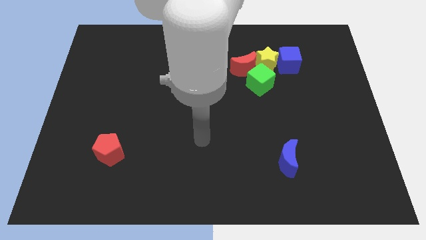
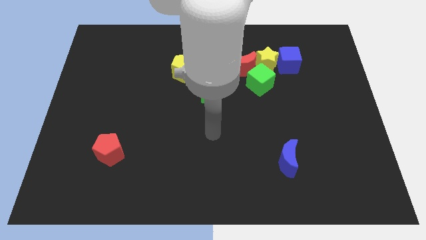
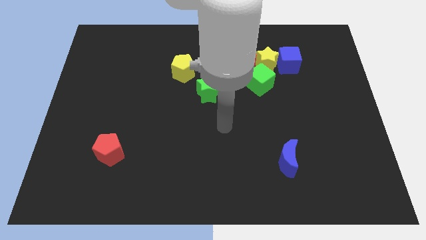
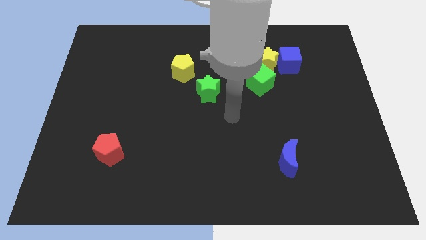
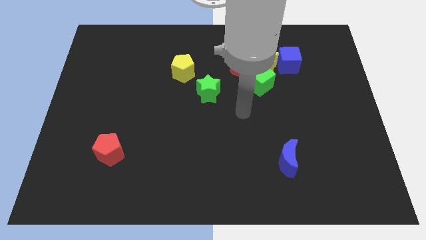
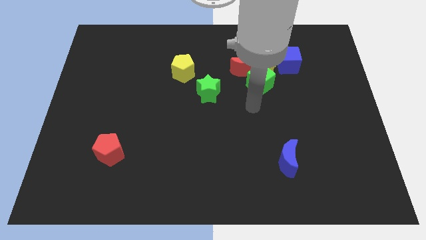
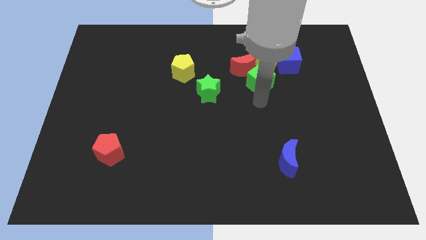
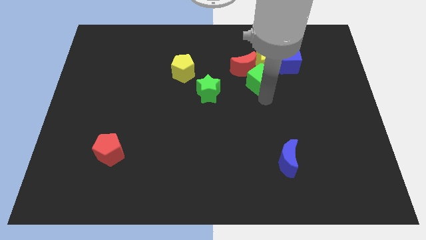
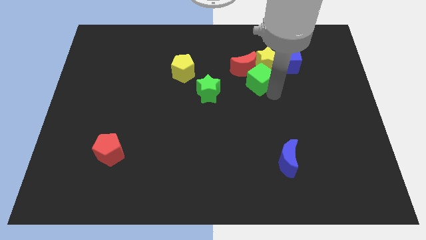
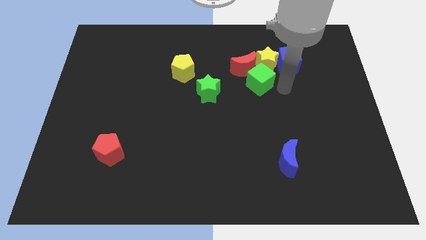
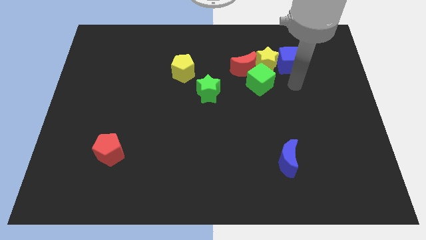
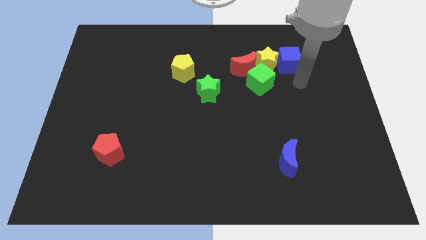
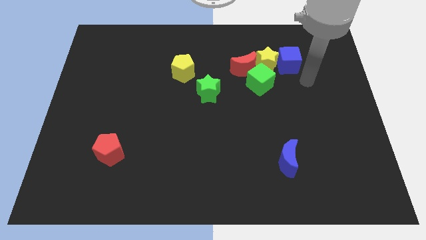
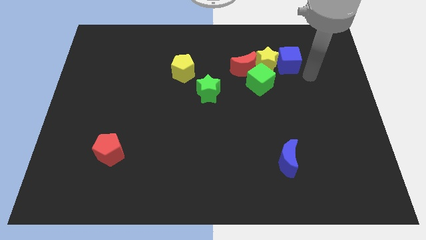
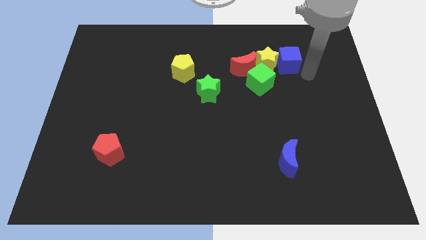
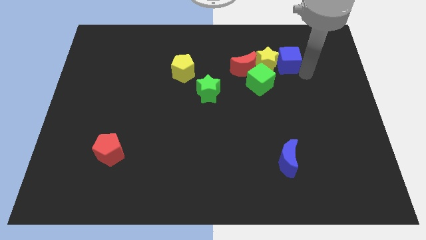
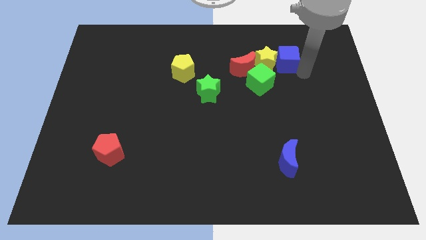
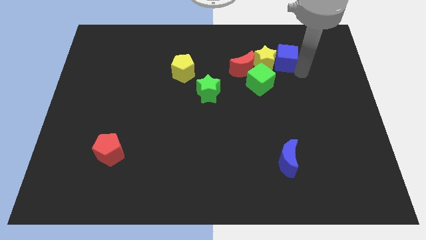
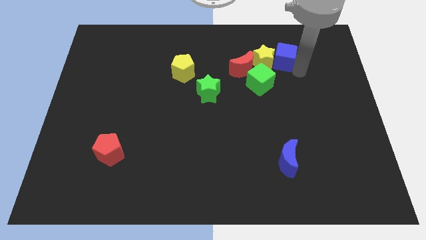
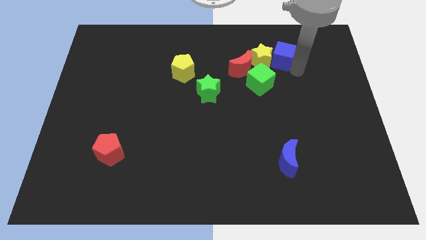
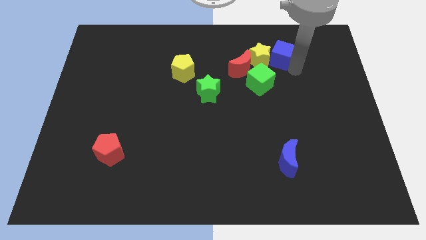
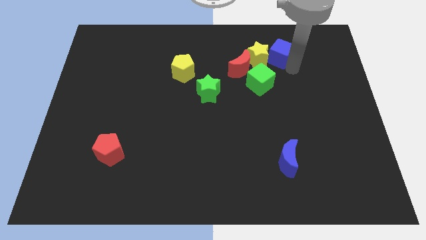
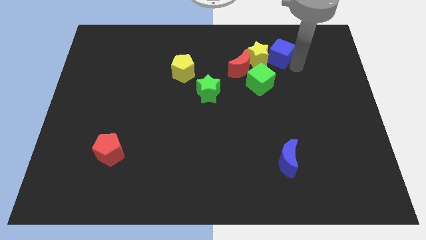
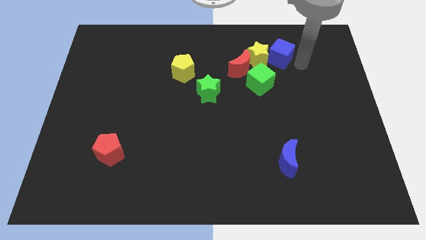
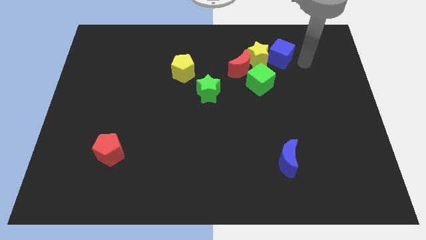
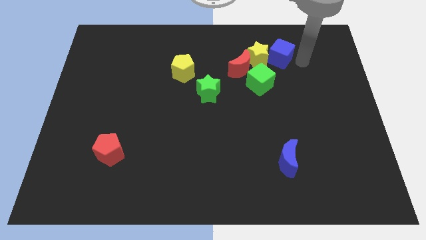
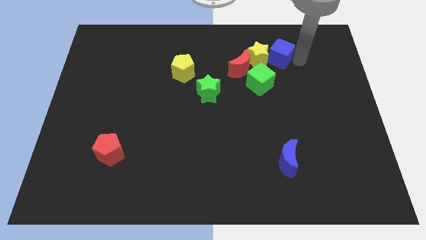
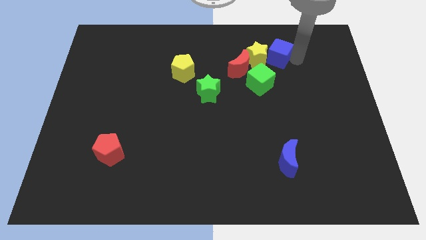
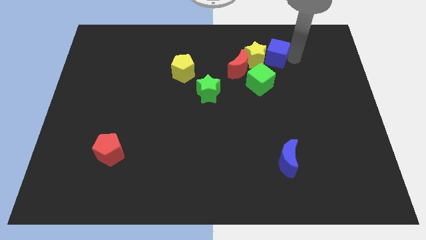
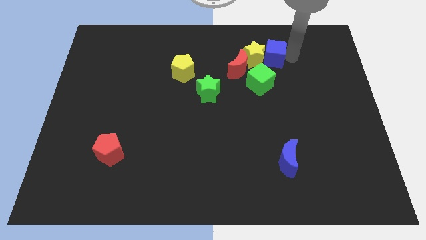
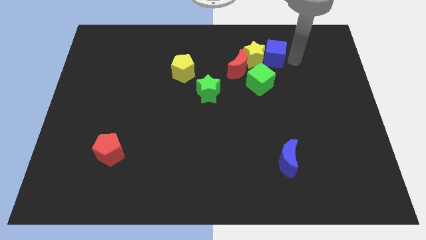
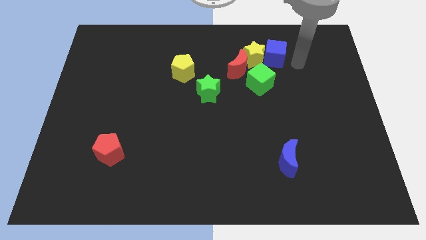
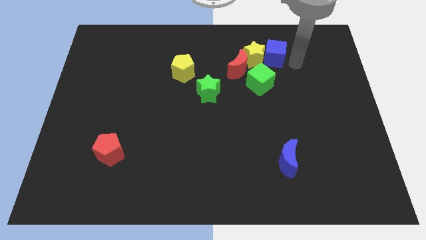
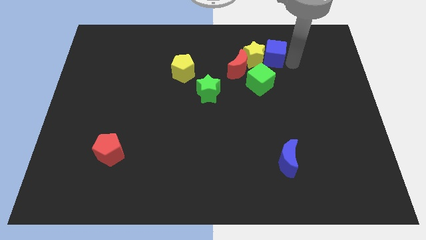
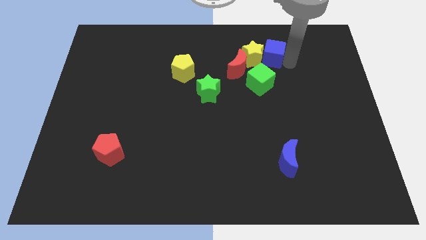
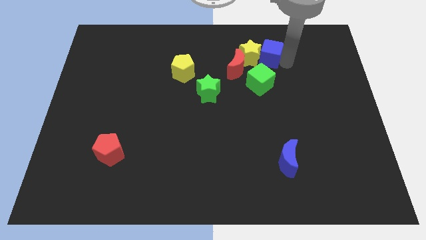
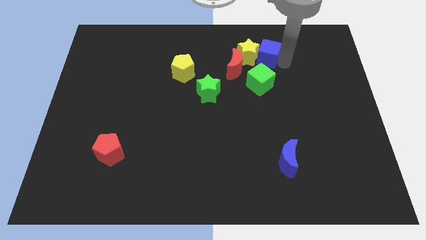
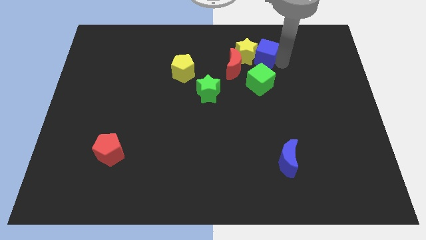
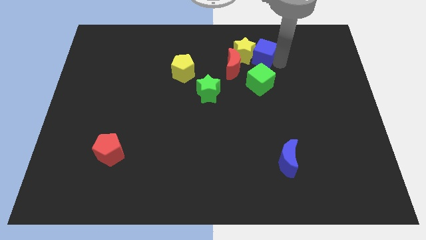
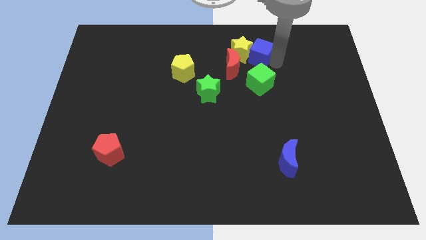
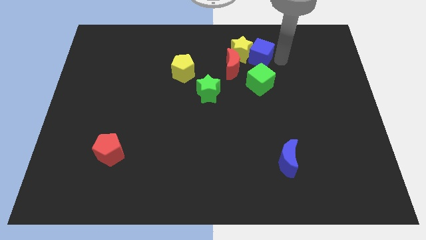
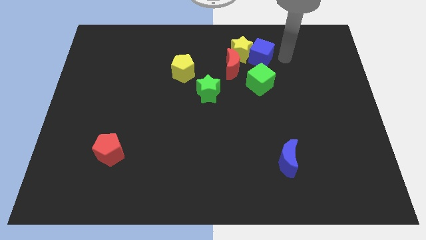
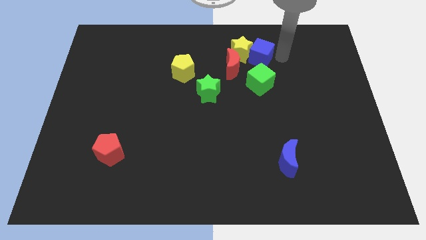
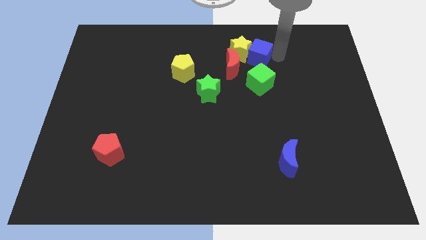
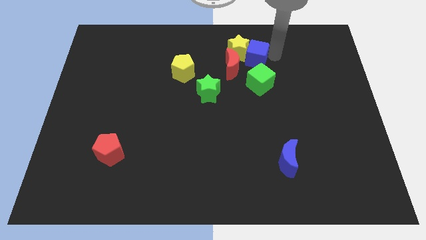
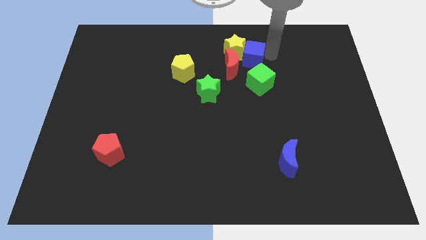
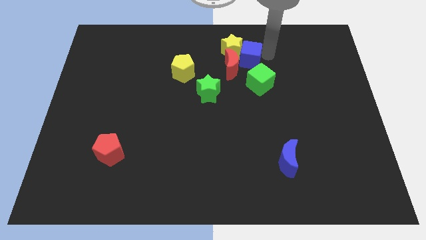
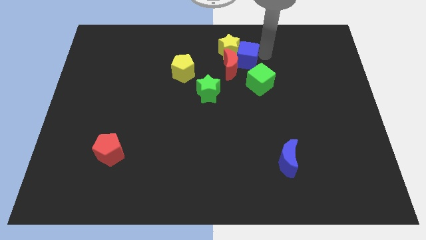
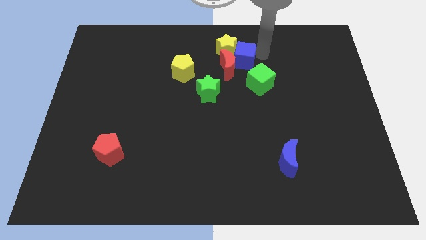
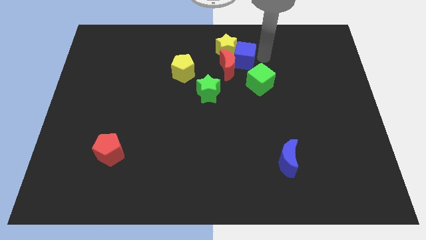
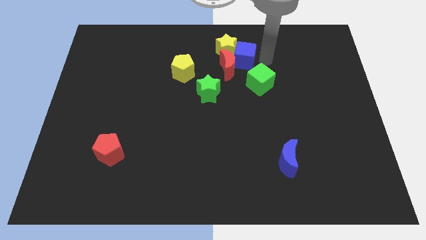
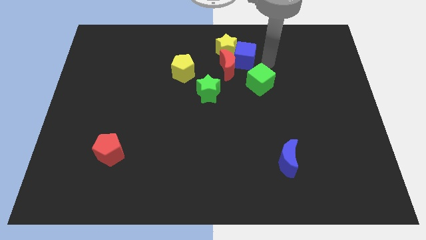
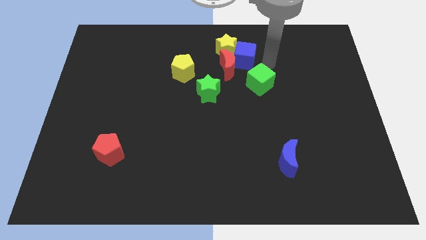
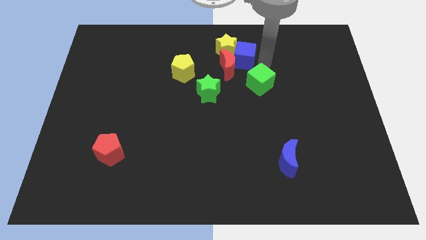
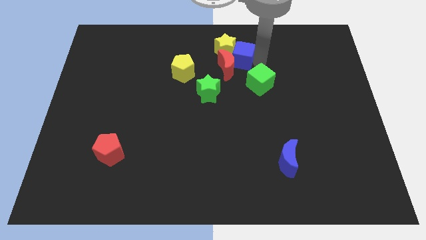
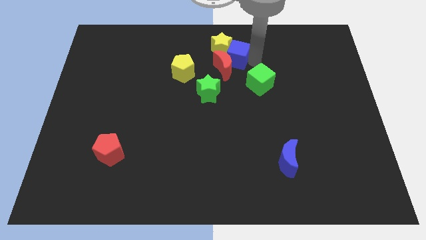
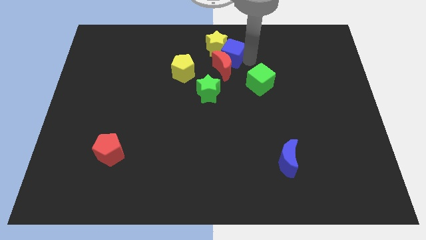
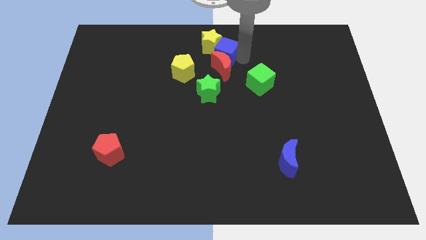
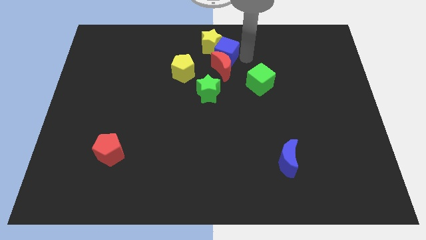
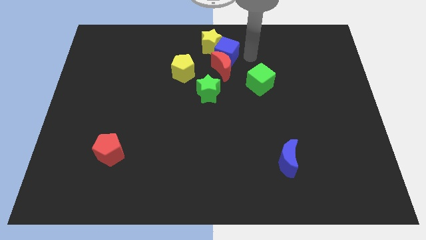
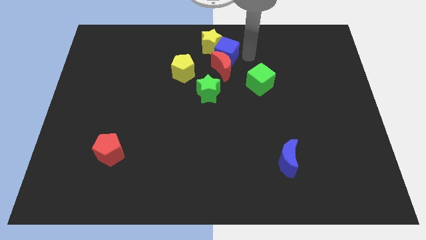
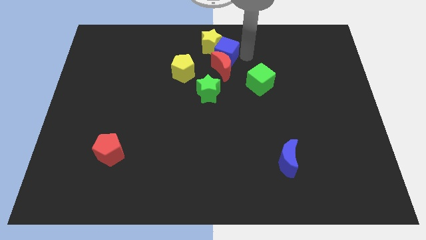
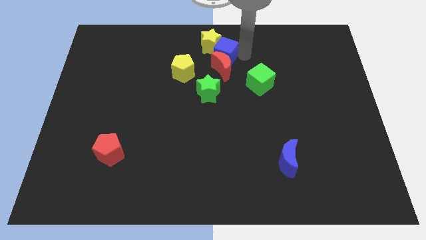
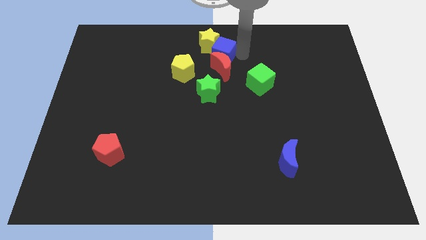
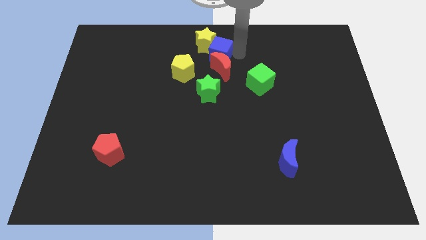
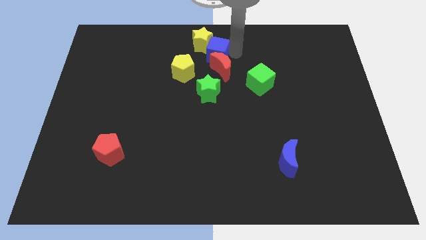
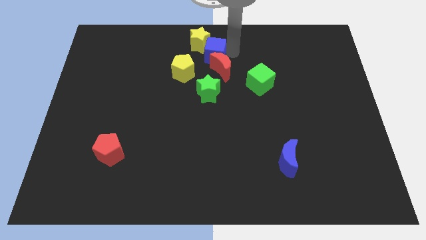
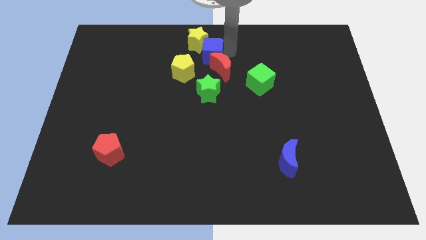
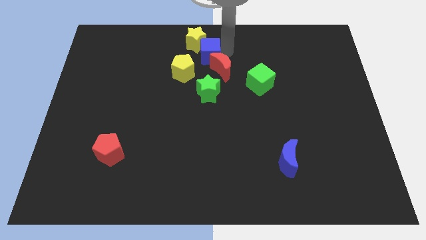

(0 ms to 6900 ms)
push the blue cube left

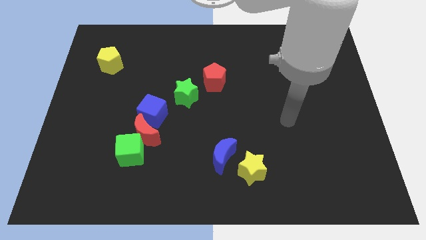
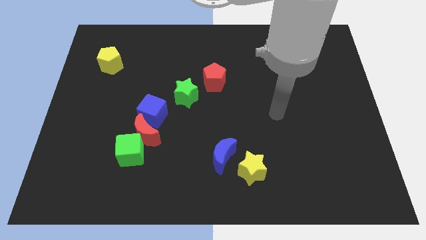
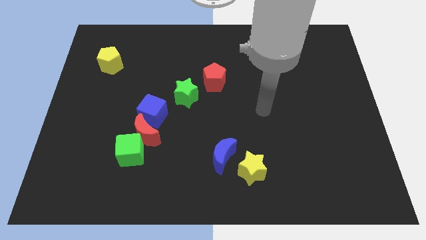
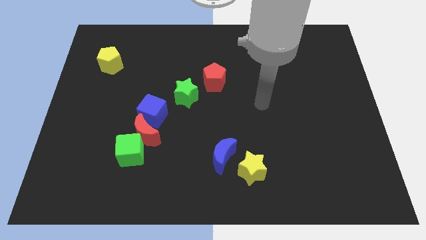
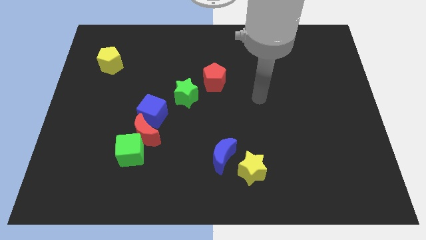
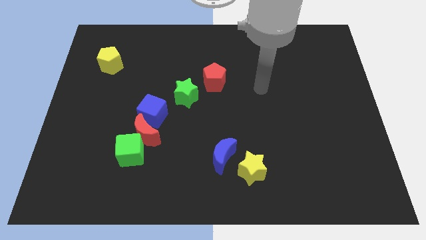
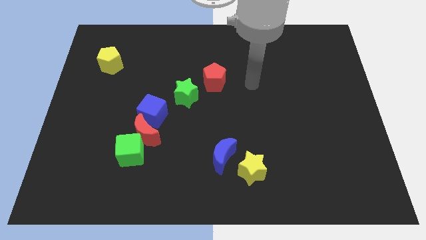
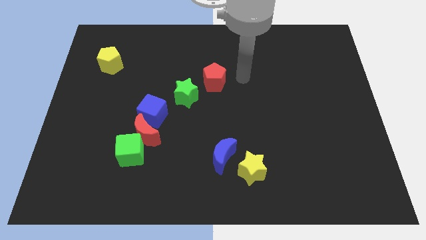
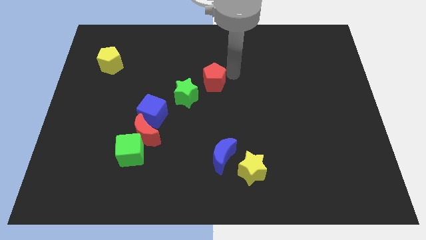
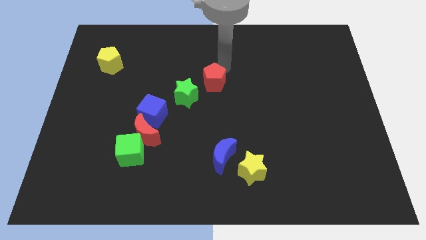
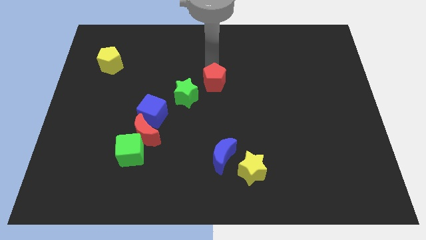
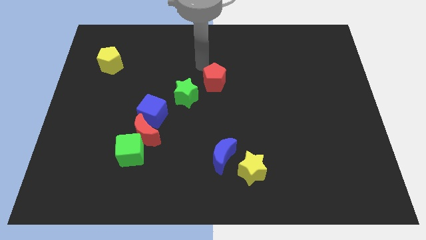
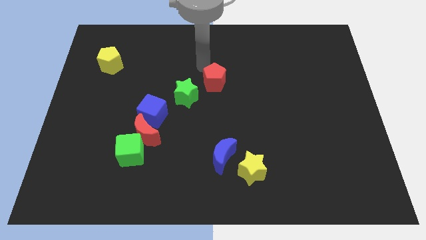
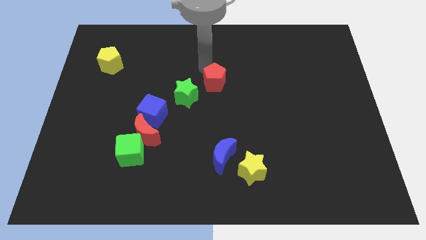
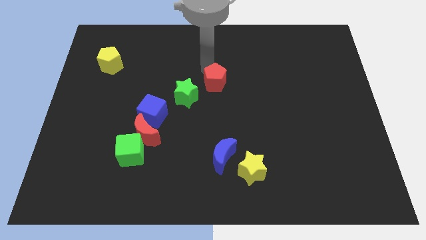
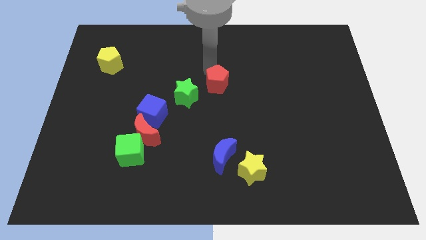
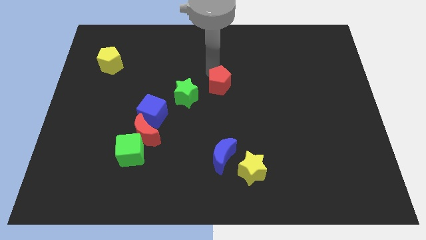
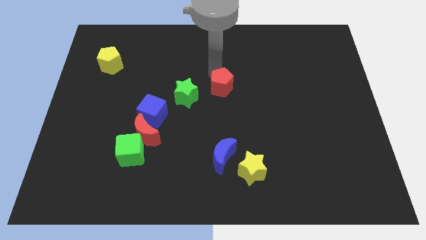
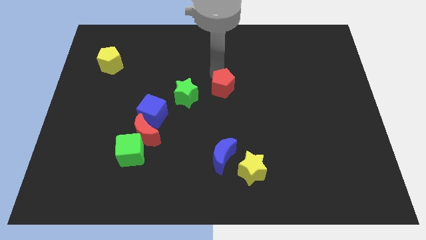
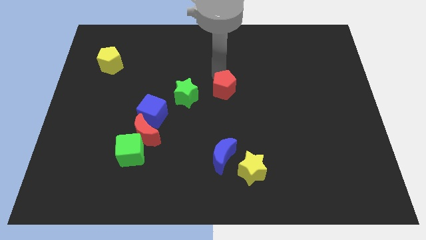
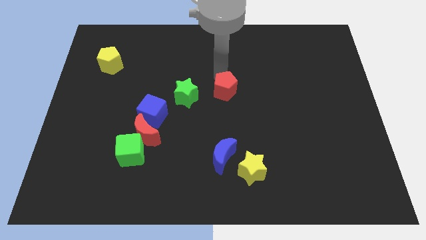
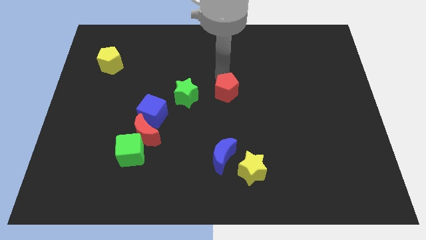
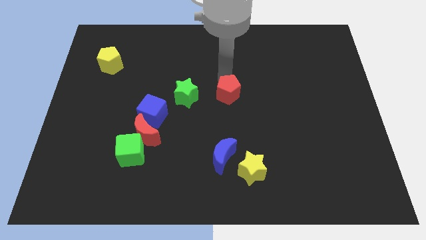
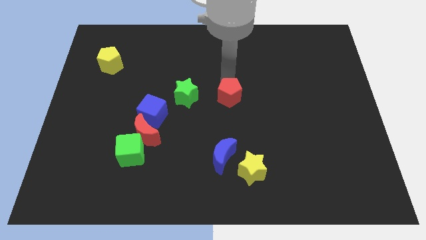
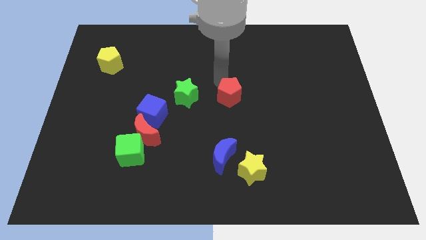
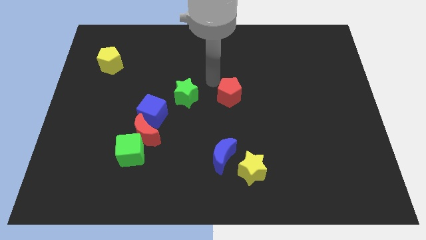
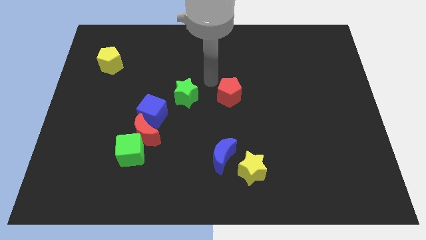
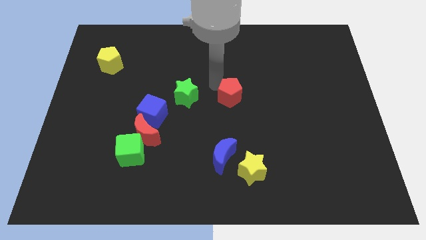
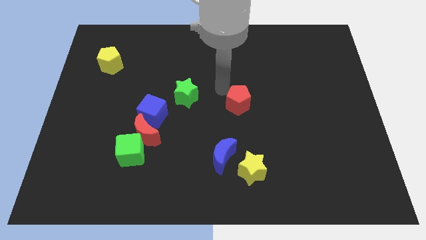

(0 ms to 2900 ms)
slightly slide the red pentagon downwards and right
